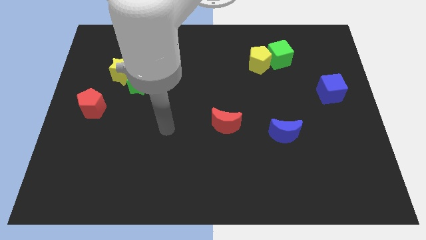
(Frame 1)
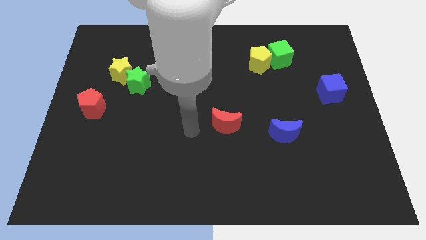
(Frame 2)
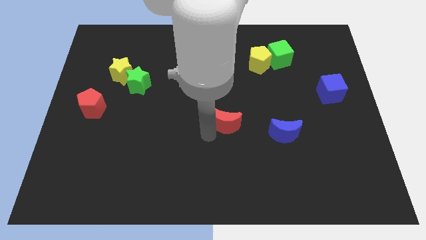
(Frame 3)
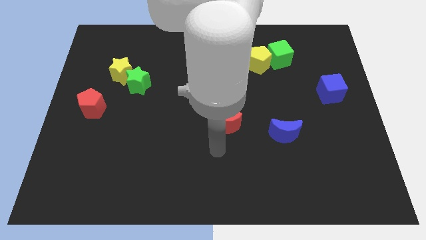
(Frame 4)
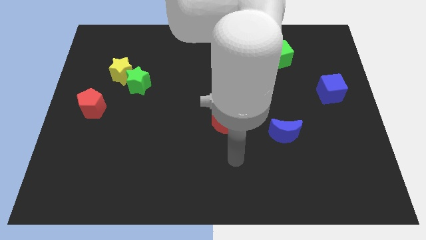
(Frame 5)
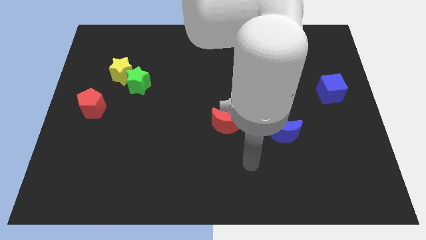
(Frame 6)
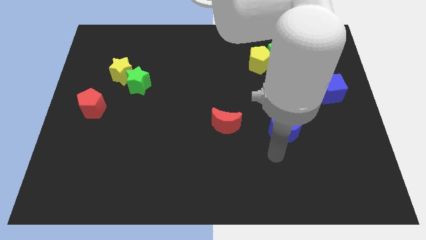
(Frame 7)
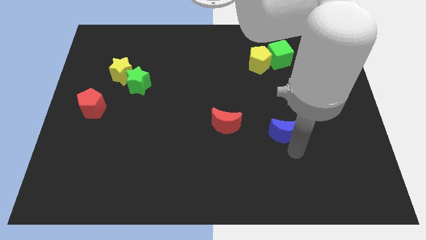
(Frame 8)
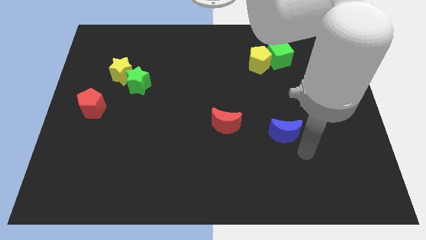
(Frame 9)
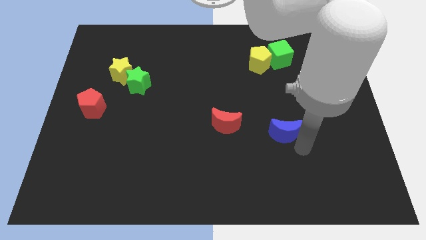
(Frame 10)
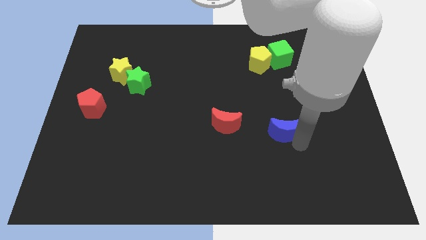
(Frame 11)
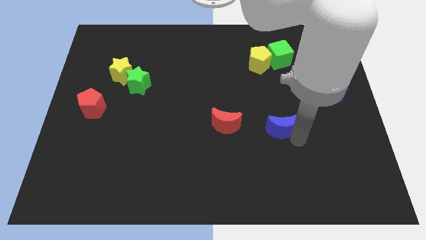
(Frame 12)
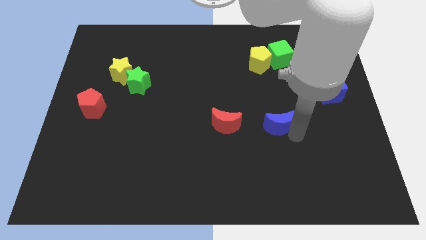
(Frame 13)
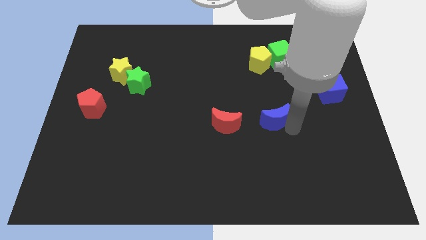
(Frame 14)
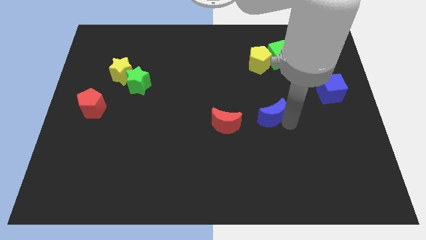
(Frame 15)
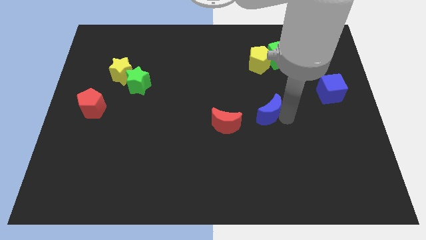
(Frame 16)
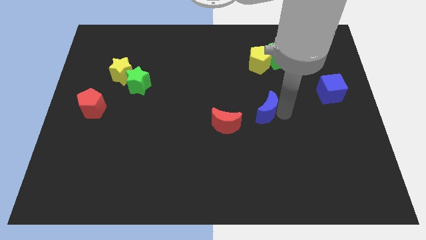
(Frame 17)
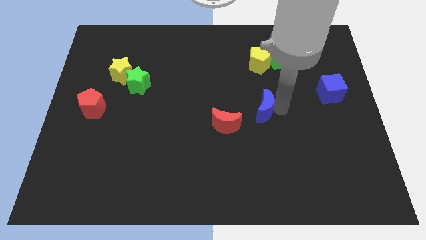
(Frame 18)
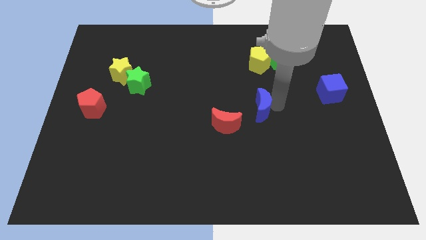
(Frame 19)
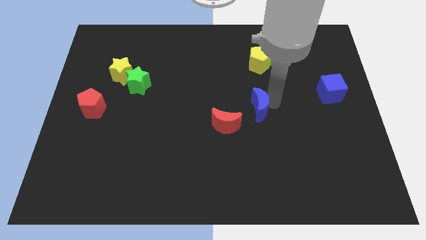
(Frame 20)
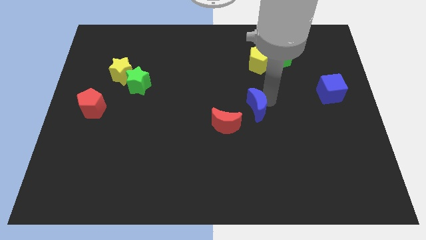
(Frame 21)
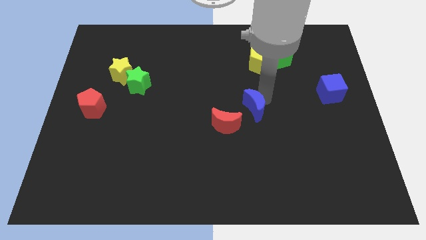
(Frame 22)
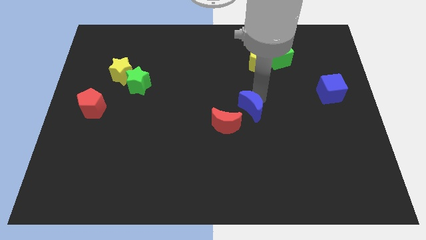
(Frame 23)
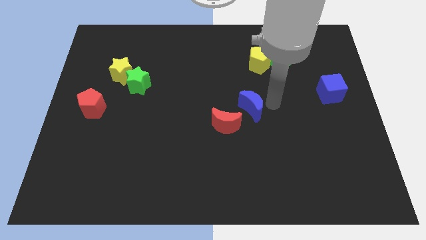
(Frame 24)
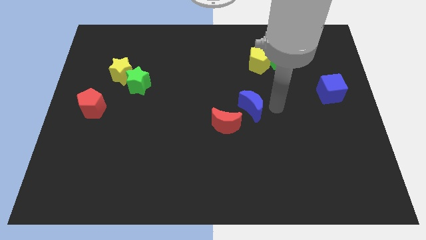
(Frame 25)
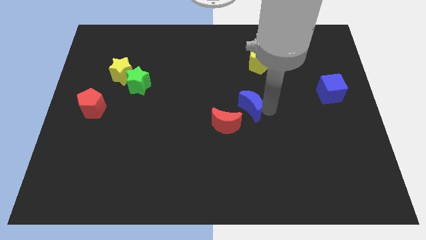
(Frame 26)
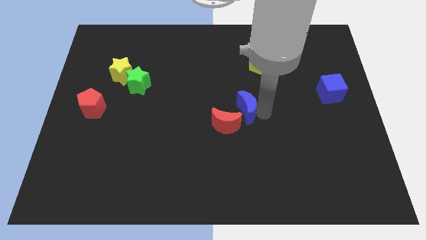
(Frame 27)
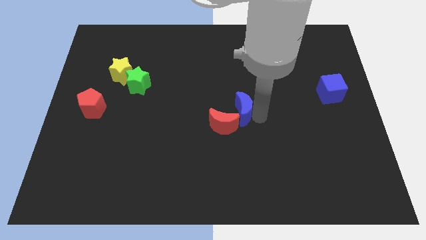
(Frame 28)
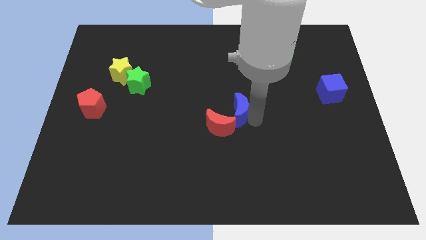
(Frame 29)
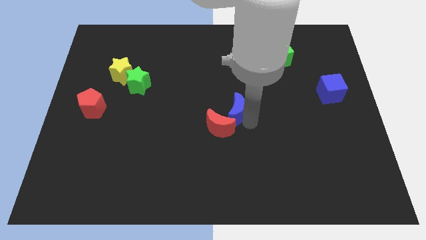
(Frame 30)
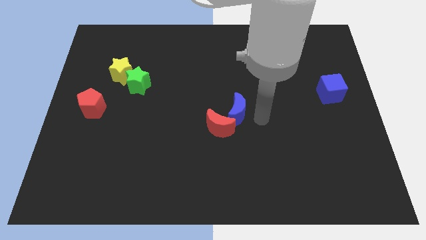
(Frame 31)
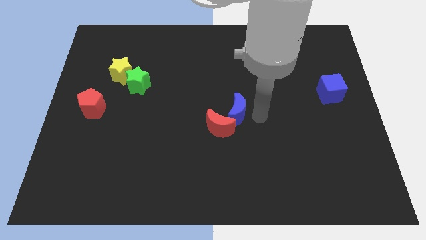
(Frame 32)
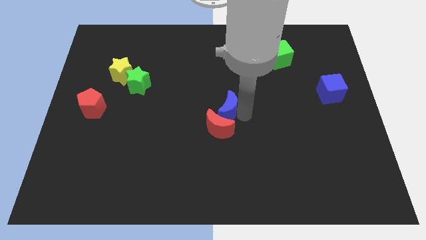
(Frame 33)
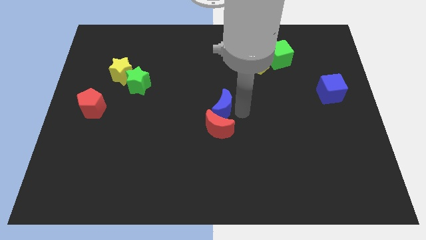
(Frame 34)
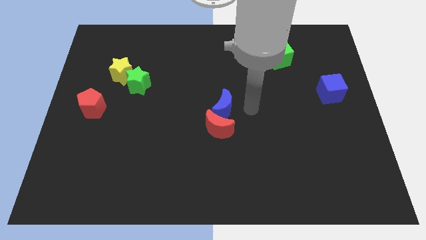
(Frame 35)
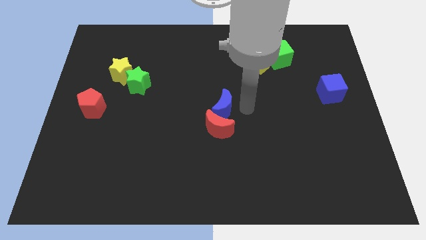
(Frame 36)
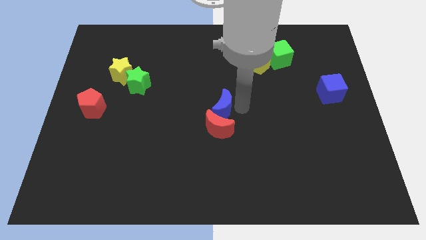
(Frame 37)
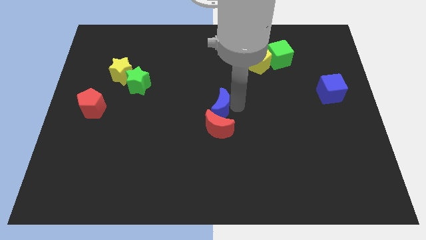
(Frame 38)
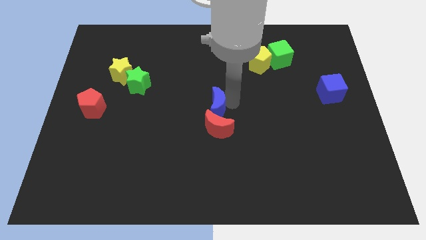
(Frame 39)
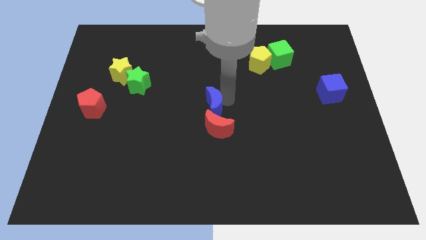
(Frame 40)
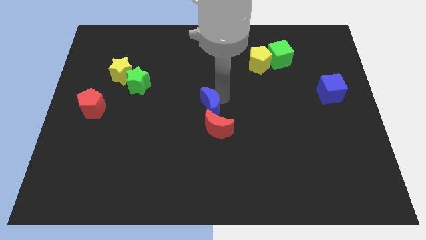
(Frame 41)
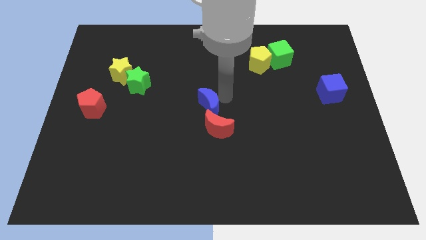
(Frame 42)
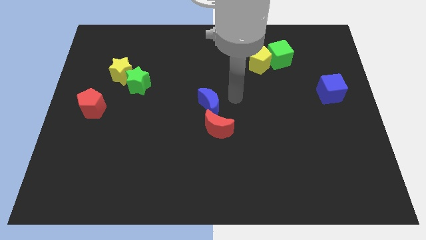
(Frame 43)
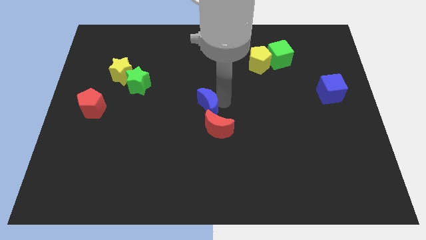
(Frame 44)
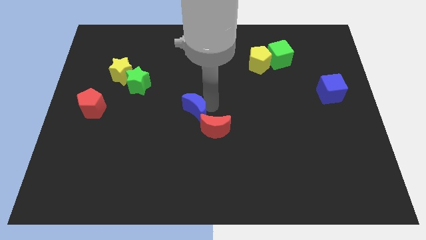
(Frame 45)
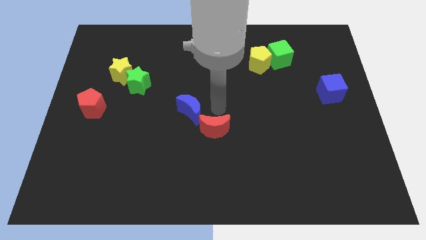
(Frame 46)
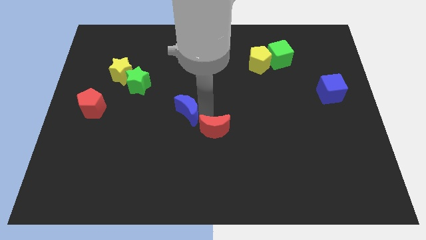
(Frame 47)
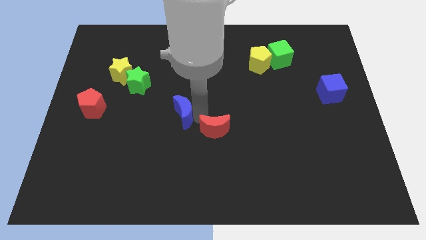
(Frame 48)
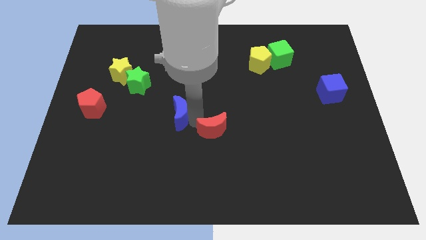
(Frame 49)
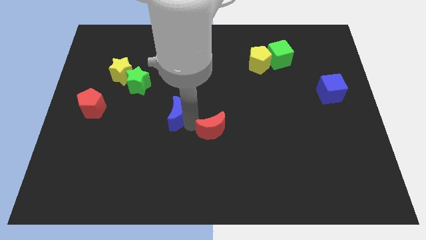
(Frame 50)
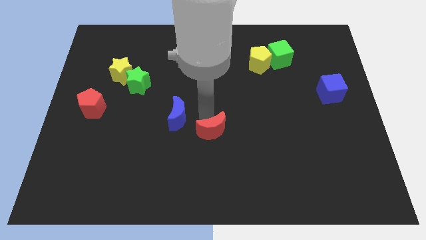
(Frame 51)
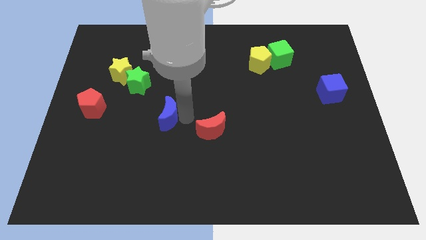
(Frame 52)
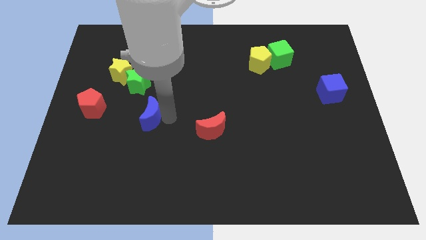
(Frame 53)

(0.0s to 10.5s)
push the blue moon below the green star

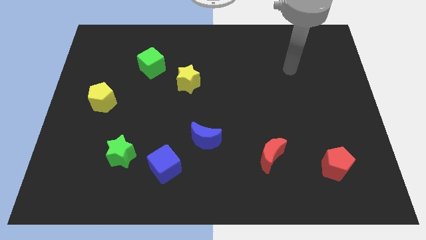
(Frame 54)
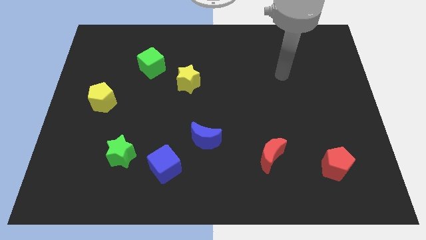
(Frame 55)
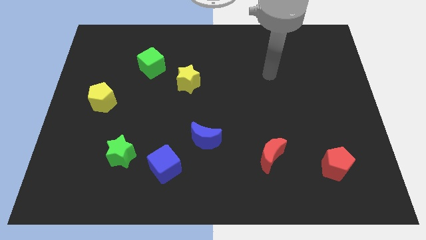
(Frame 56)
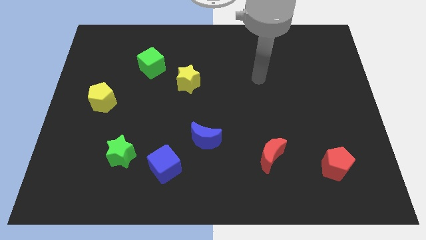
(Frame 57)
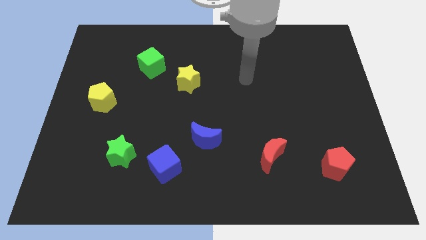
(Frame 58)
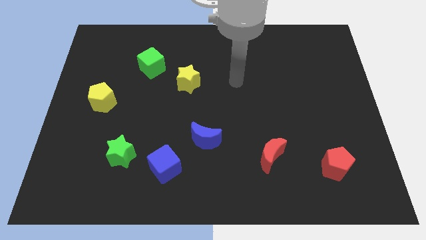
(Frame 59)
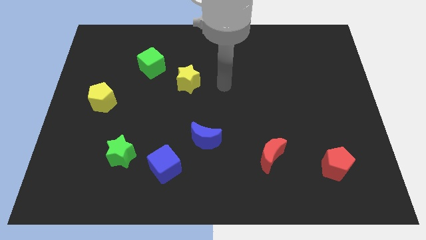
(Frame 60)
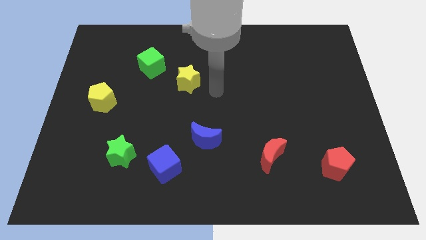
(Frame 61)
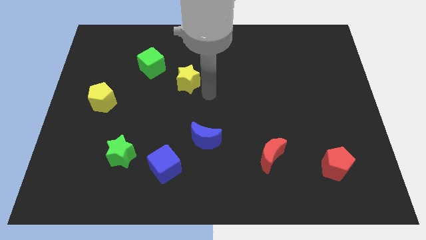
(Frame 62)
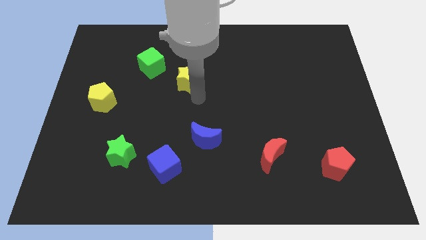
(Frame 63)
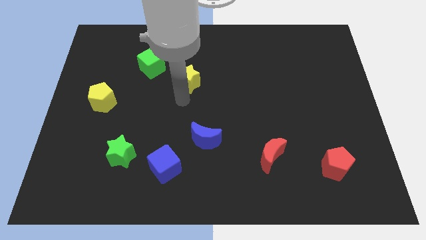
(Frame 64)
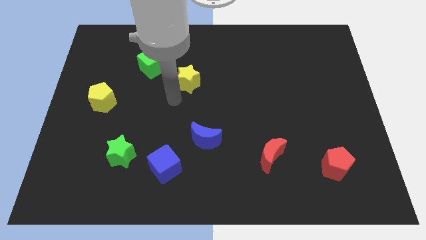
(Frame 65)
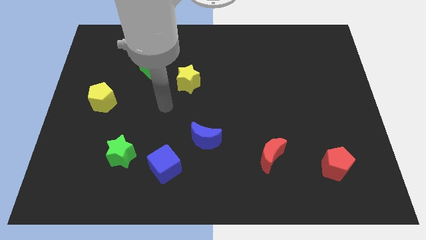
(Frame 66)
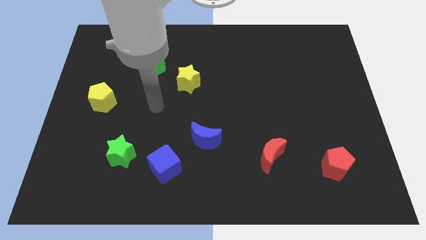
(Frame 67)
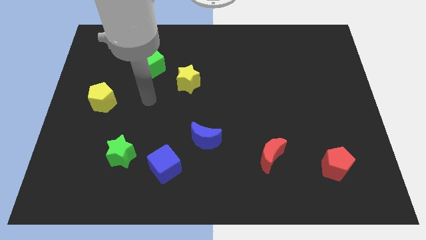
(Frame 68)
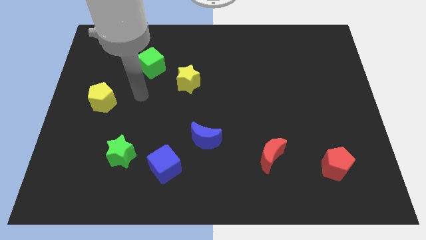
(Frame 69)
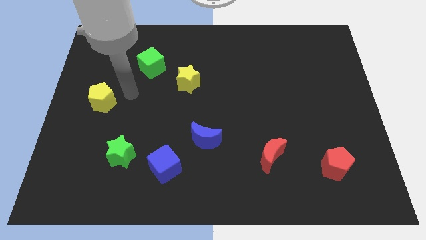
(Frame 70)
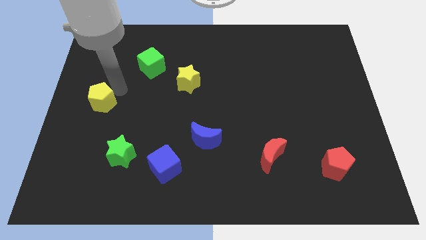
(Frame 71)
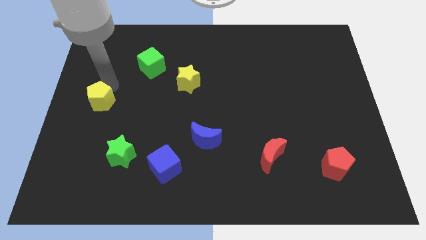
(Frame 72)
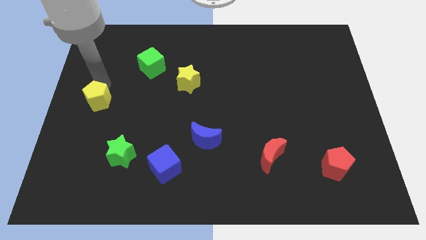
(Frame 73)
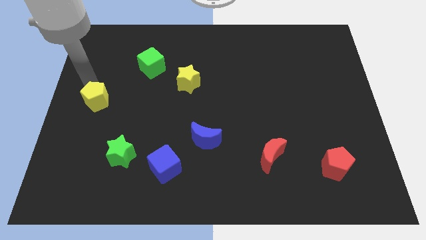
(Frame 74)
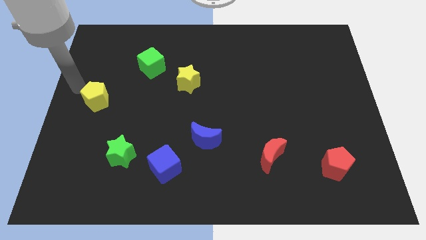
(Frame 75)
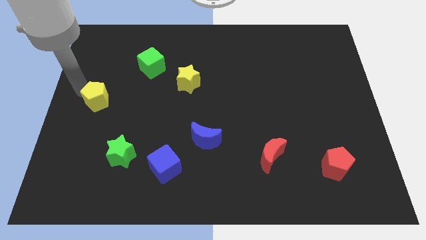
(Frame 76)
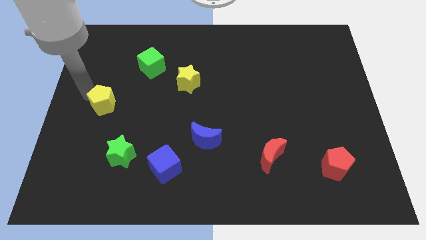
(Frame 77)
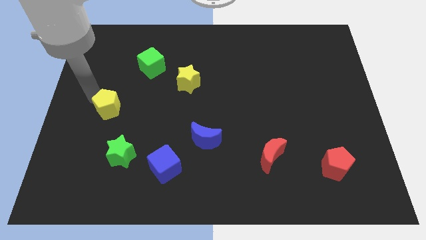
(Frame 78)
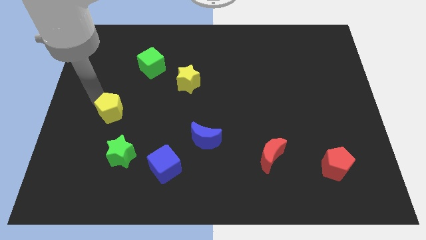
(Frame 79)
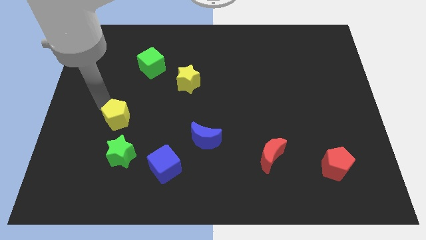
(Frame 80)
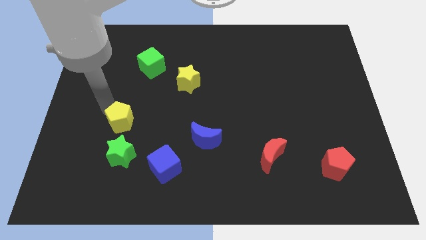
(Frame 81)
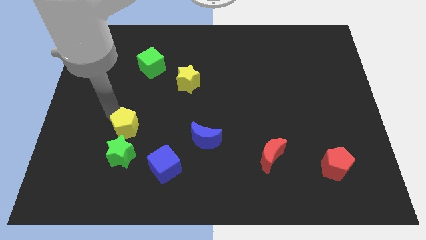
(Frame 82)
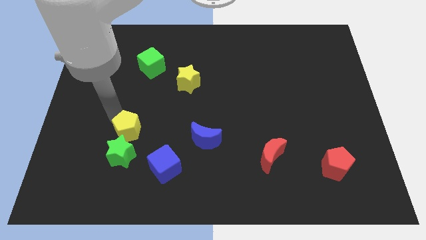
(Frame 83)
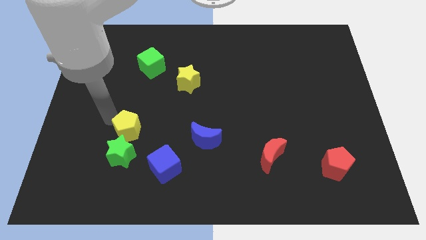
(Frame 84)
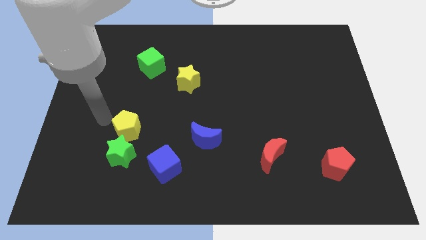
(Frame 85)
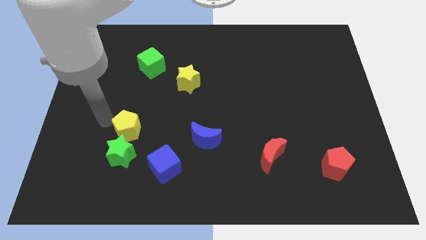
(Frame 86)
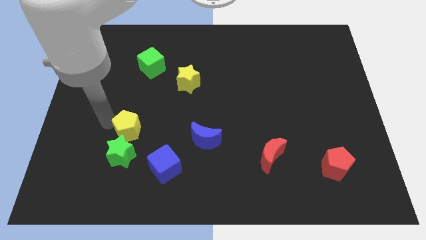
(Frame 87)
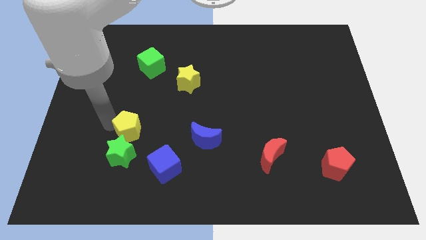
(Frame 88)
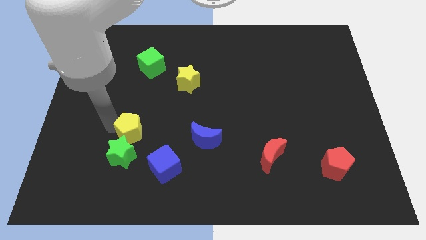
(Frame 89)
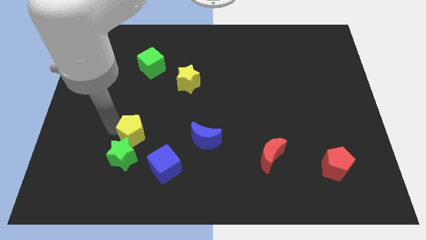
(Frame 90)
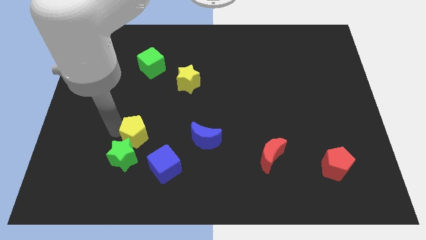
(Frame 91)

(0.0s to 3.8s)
put the yellow pentagon just left of the blue moon
